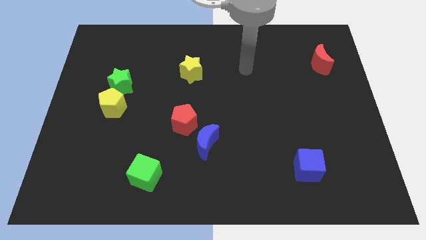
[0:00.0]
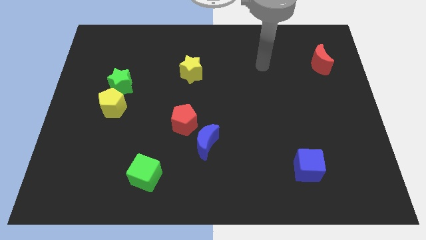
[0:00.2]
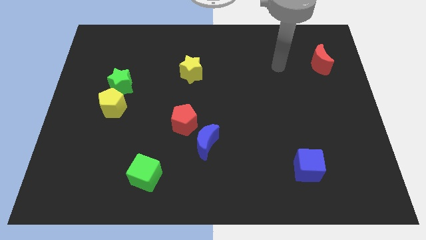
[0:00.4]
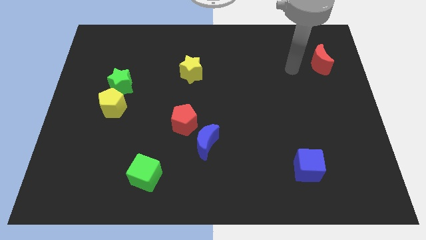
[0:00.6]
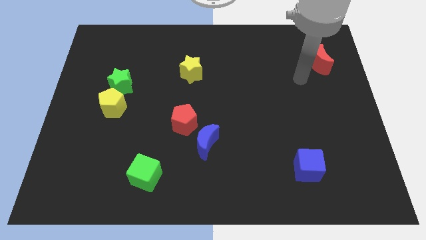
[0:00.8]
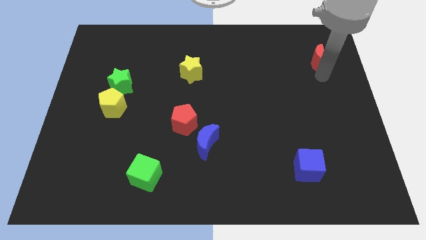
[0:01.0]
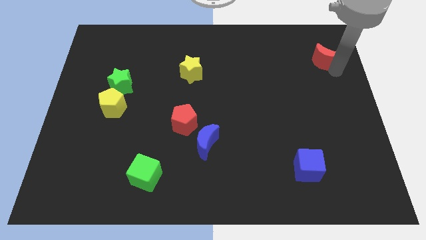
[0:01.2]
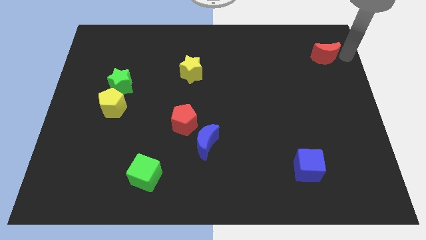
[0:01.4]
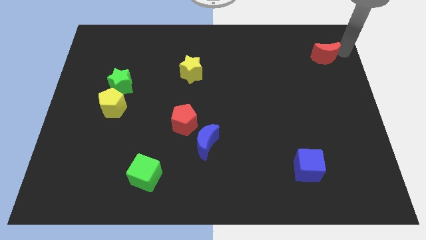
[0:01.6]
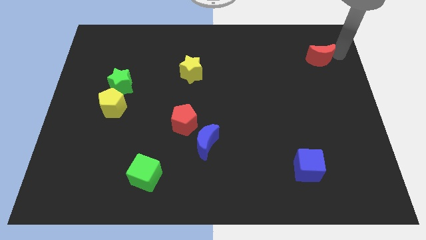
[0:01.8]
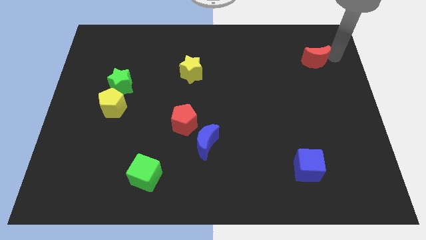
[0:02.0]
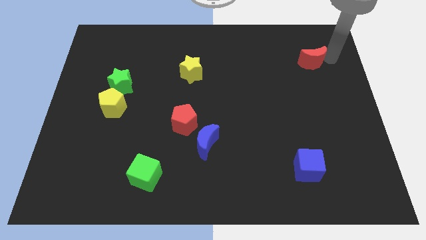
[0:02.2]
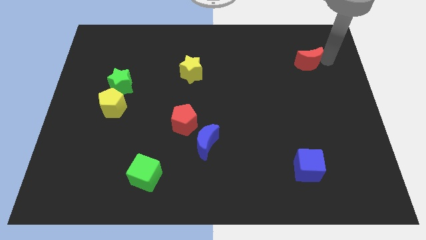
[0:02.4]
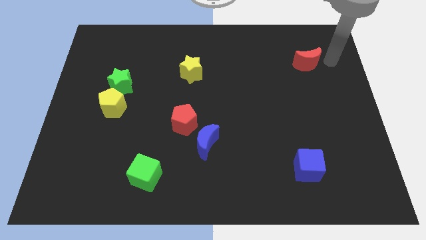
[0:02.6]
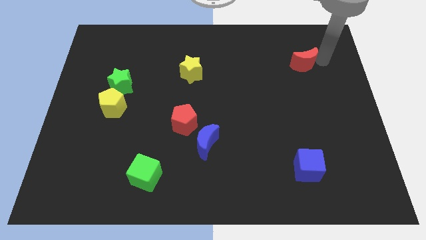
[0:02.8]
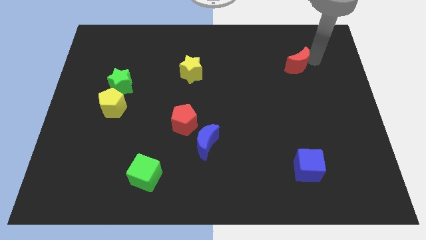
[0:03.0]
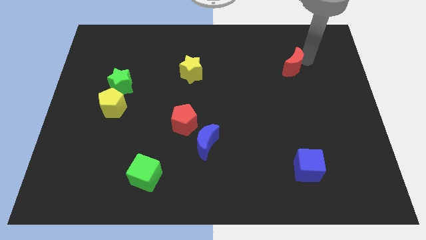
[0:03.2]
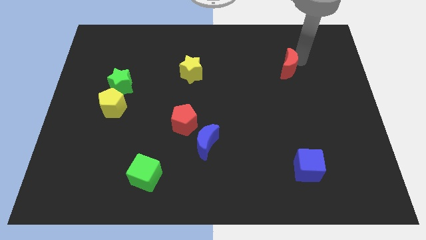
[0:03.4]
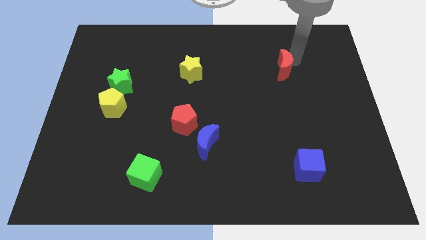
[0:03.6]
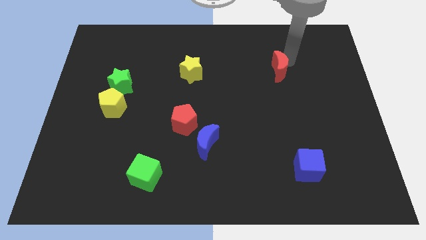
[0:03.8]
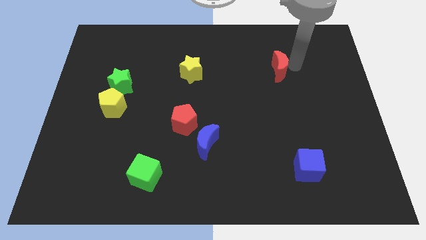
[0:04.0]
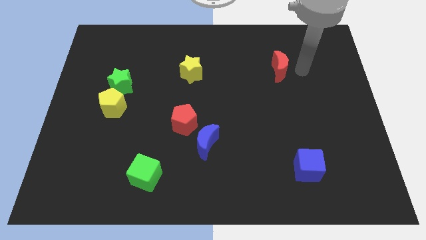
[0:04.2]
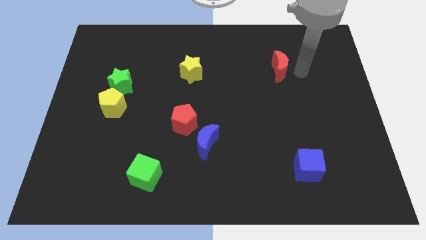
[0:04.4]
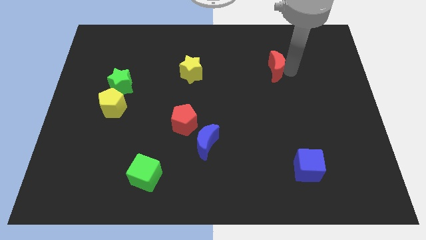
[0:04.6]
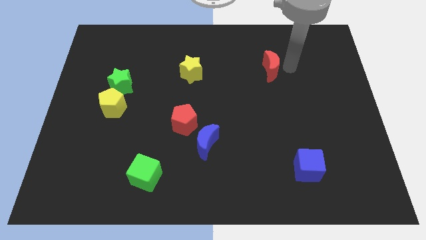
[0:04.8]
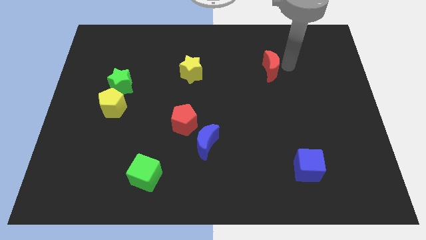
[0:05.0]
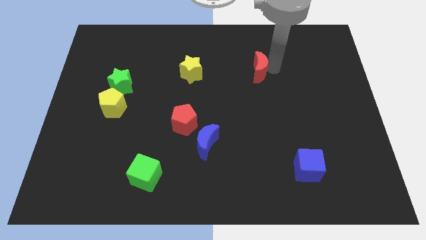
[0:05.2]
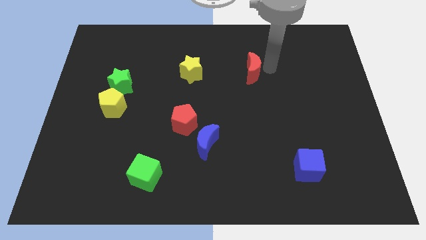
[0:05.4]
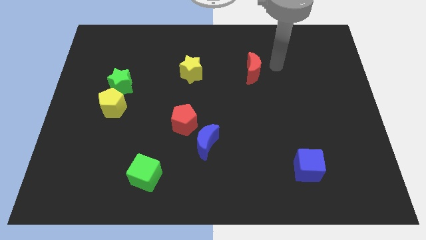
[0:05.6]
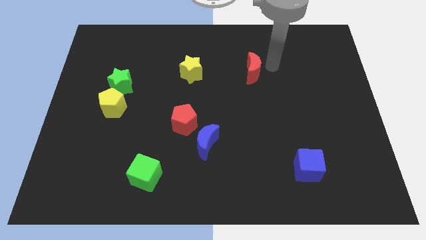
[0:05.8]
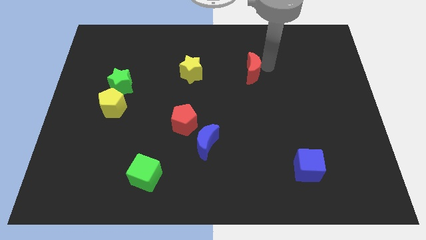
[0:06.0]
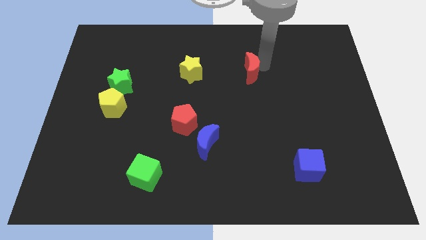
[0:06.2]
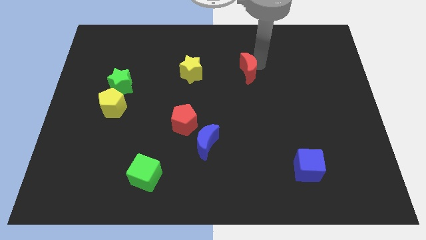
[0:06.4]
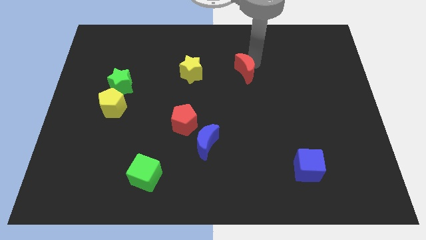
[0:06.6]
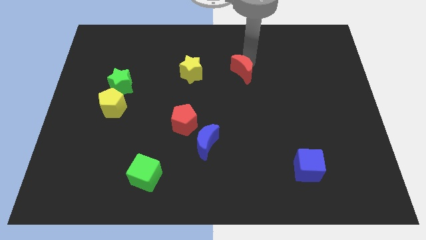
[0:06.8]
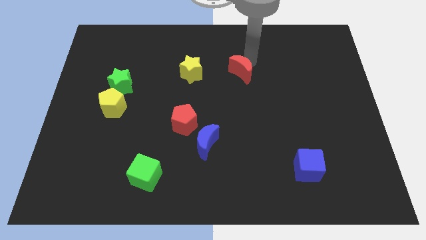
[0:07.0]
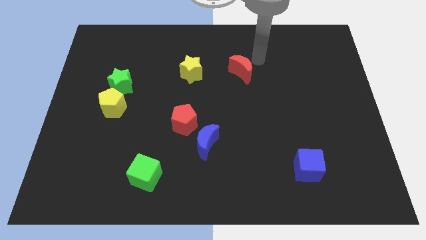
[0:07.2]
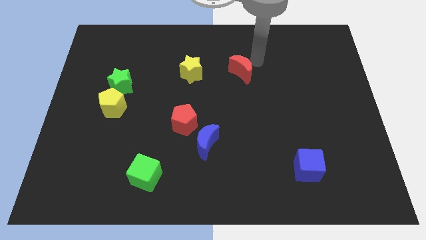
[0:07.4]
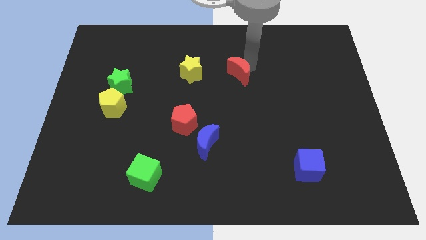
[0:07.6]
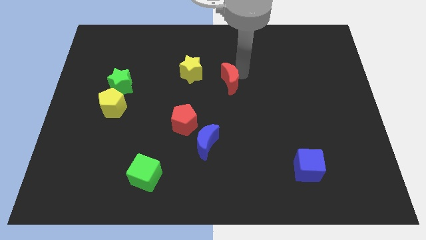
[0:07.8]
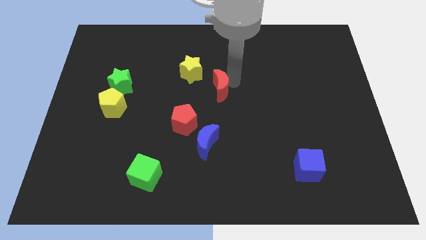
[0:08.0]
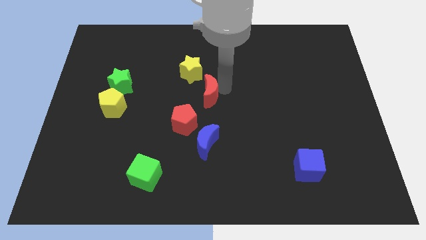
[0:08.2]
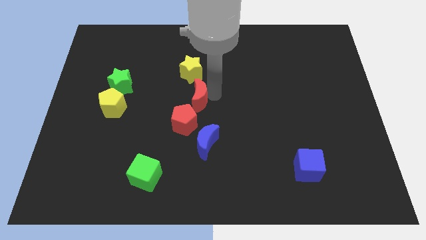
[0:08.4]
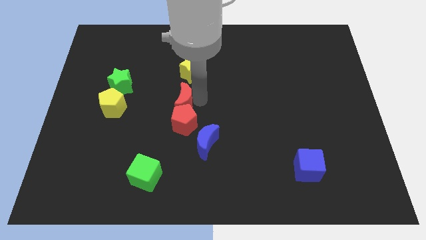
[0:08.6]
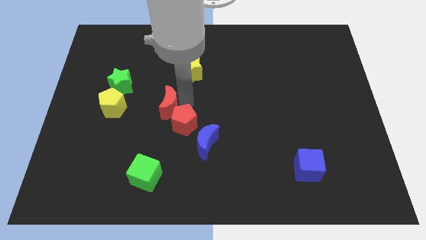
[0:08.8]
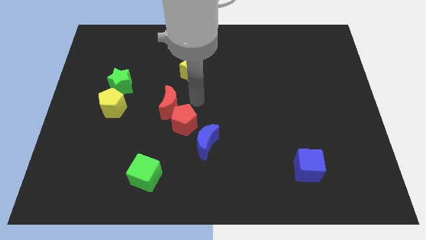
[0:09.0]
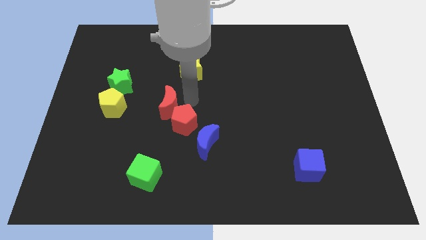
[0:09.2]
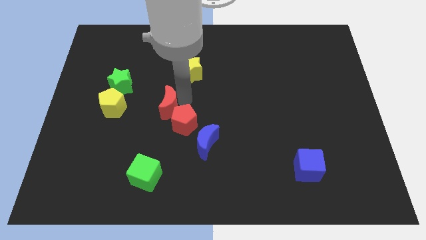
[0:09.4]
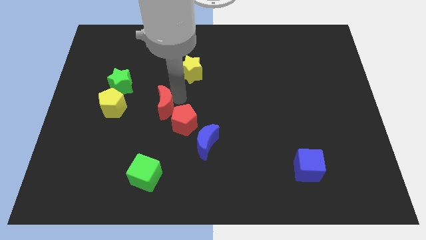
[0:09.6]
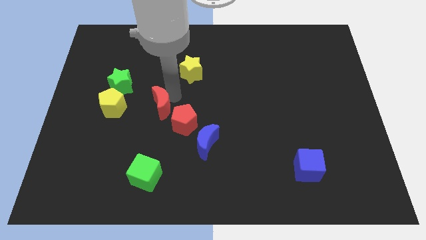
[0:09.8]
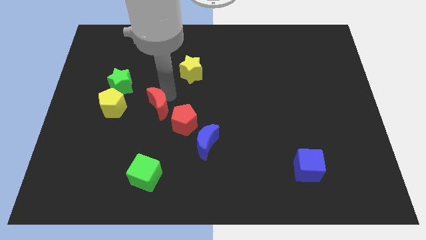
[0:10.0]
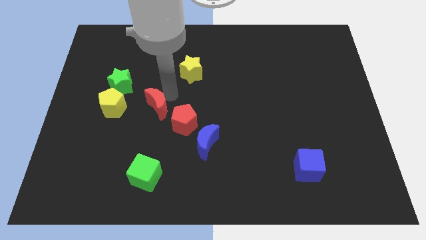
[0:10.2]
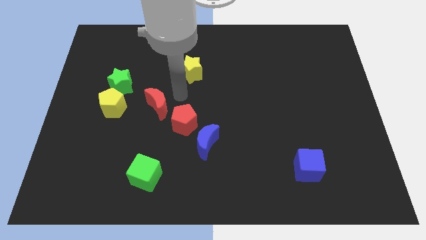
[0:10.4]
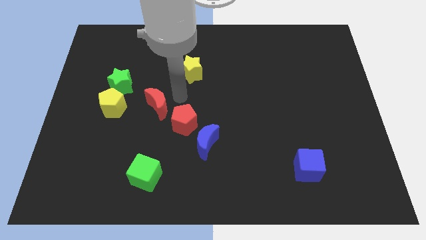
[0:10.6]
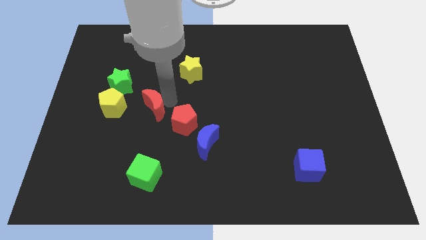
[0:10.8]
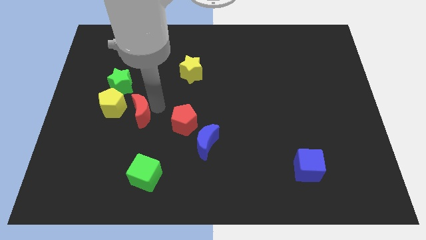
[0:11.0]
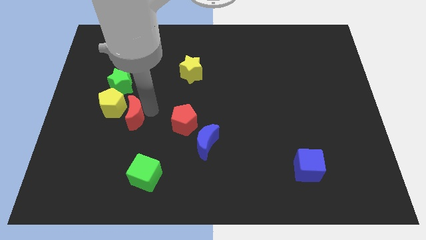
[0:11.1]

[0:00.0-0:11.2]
push the red moon to the bottom side of the green star

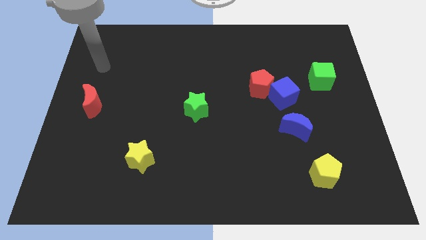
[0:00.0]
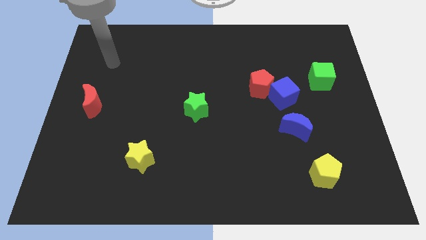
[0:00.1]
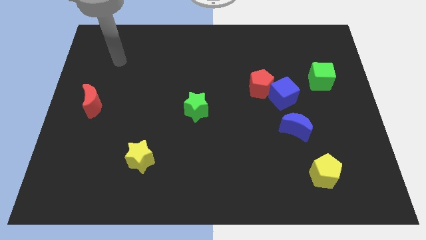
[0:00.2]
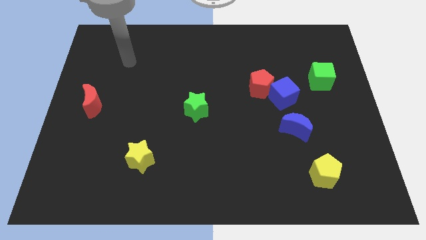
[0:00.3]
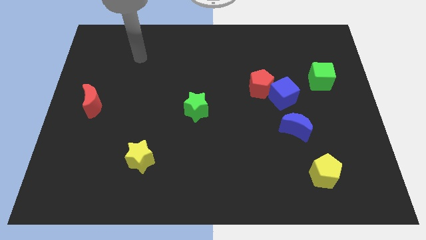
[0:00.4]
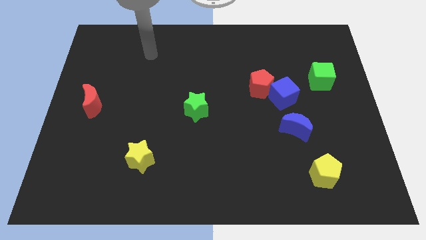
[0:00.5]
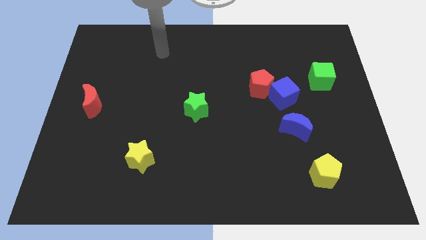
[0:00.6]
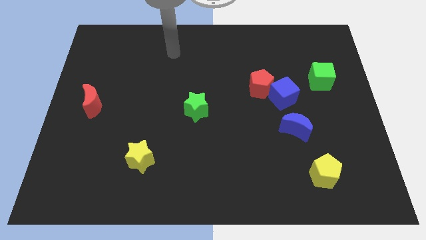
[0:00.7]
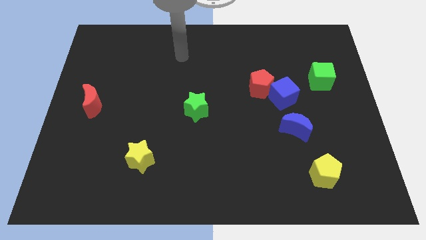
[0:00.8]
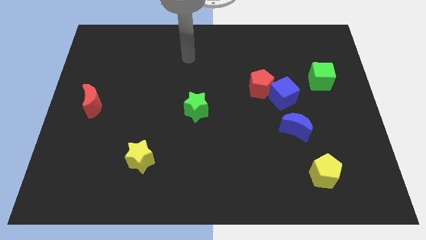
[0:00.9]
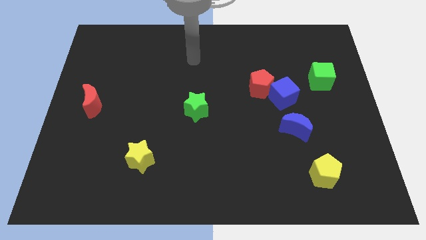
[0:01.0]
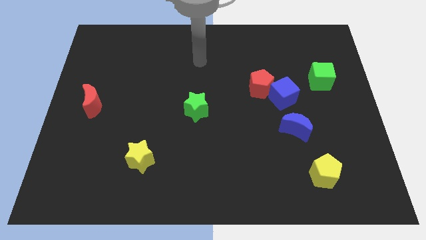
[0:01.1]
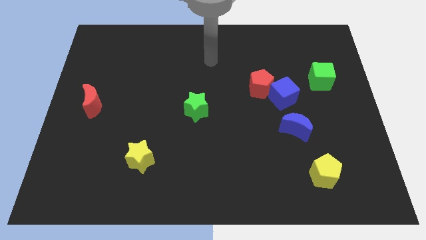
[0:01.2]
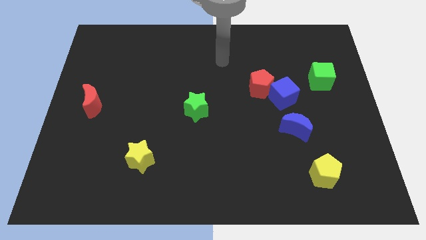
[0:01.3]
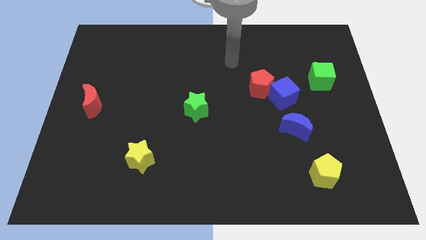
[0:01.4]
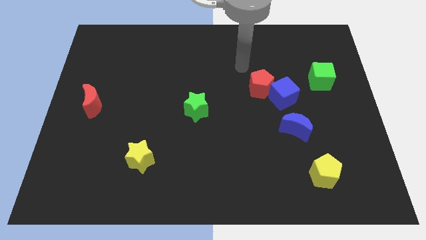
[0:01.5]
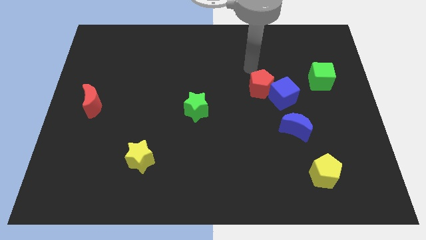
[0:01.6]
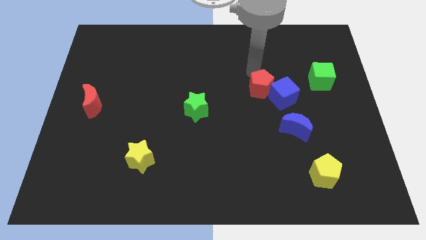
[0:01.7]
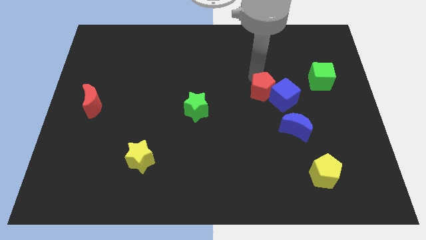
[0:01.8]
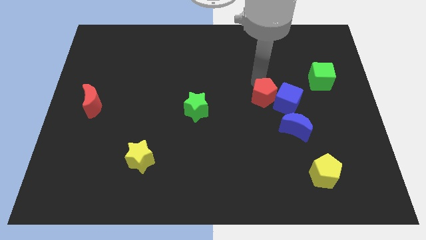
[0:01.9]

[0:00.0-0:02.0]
slide the red pentagon to the top left of the blue moon
